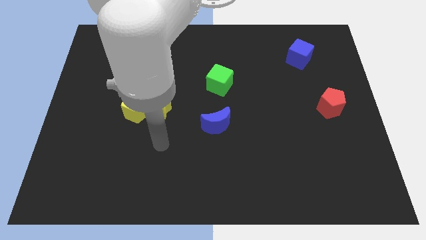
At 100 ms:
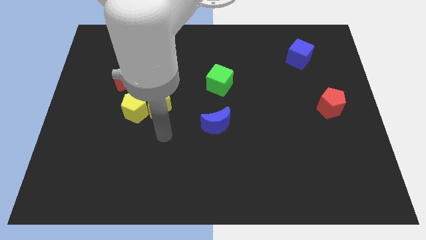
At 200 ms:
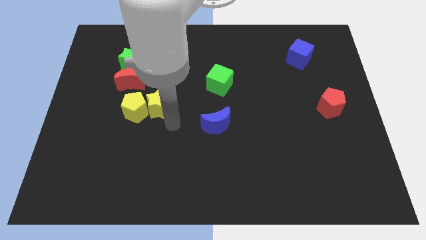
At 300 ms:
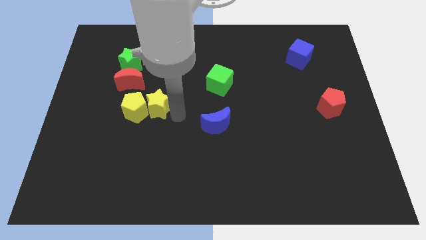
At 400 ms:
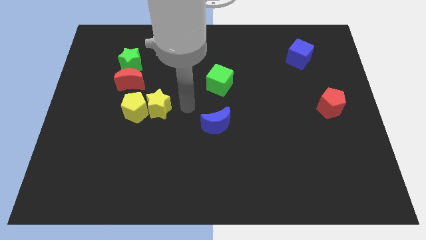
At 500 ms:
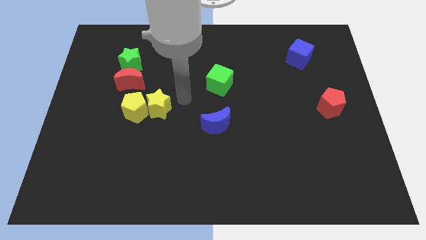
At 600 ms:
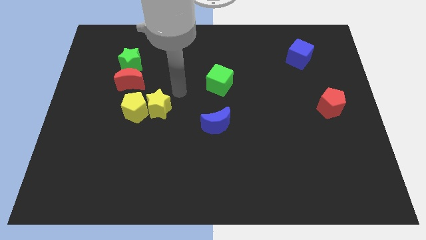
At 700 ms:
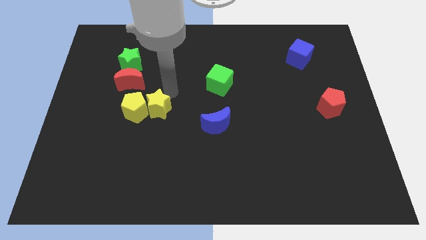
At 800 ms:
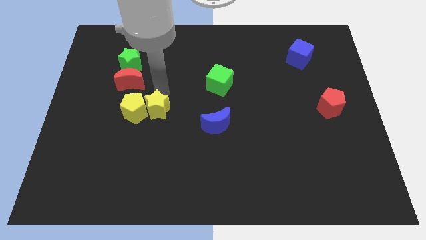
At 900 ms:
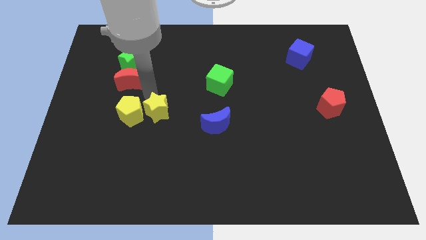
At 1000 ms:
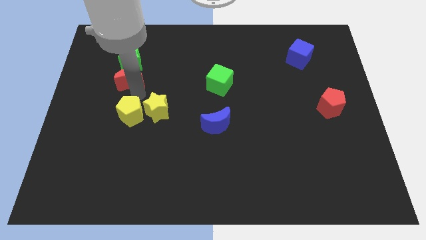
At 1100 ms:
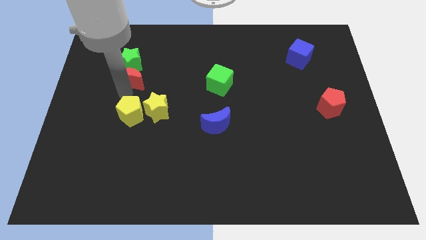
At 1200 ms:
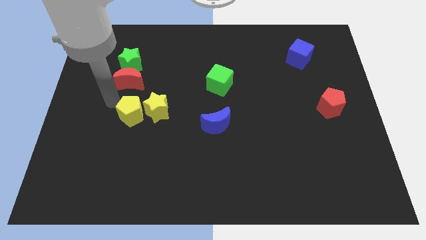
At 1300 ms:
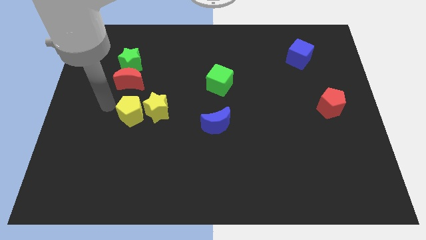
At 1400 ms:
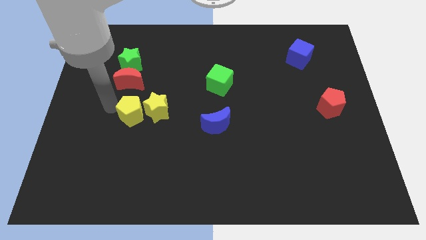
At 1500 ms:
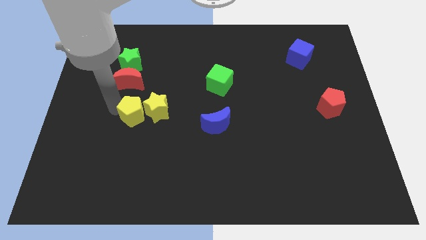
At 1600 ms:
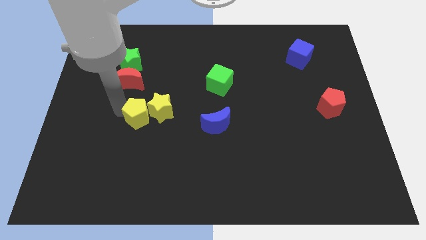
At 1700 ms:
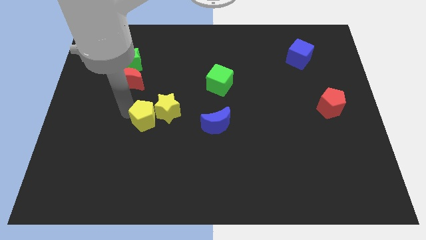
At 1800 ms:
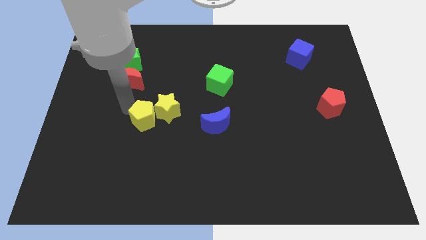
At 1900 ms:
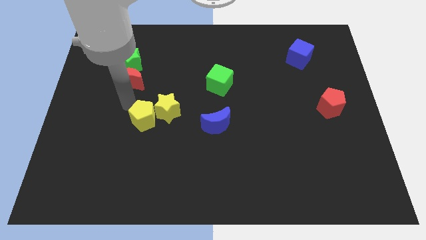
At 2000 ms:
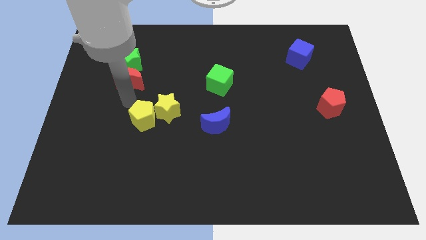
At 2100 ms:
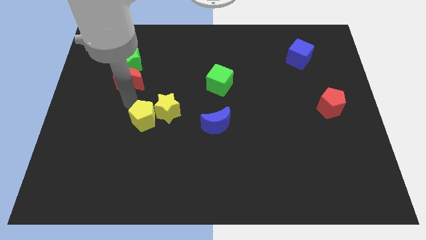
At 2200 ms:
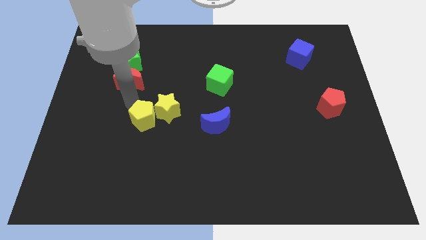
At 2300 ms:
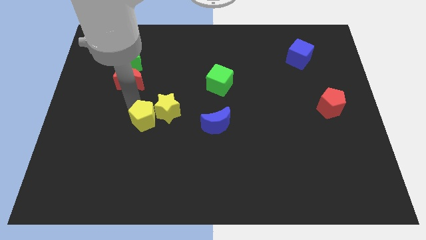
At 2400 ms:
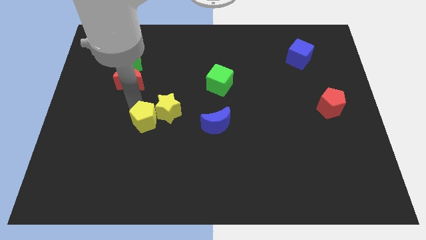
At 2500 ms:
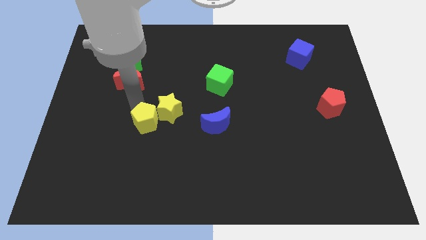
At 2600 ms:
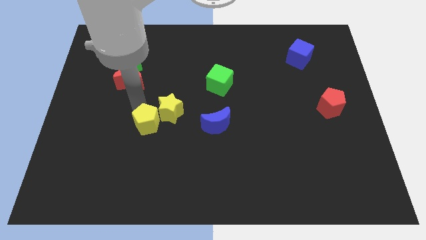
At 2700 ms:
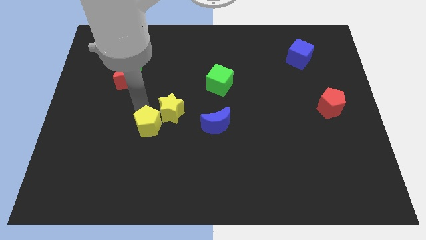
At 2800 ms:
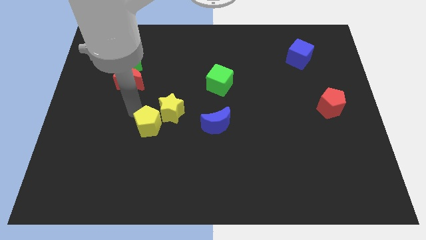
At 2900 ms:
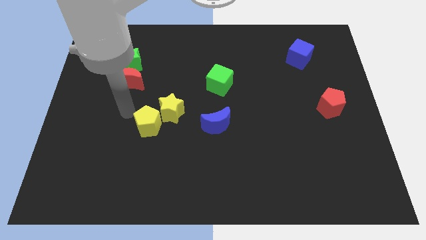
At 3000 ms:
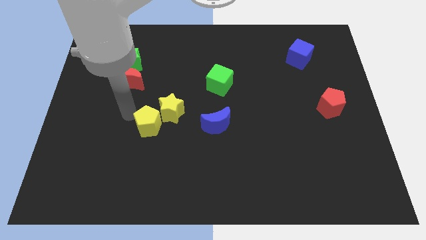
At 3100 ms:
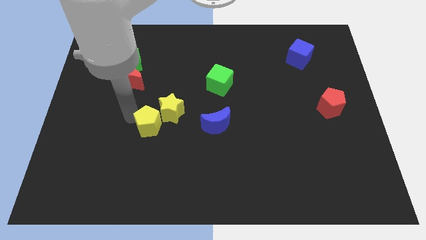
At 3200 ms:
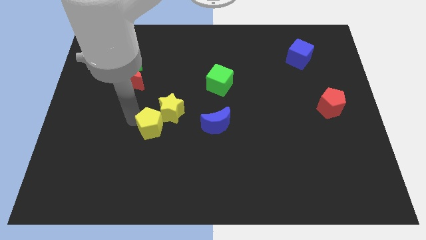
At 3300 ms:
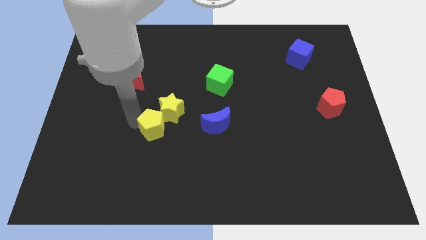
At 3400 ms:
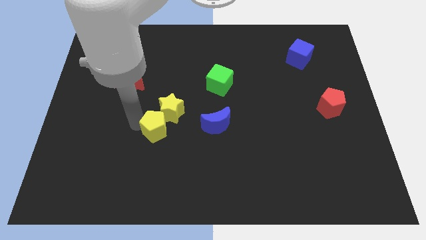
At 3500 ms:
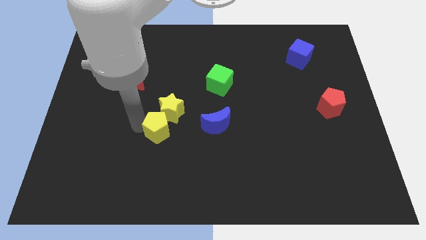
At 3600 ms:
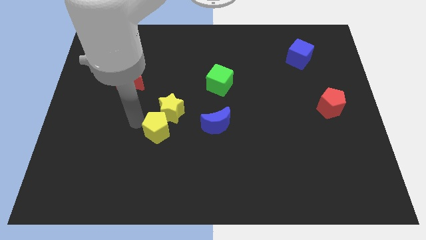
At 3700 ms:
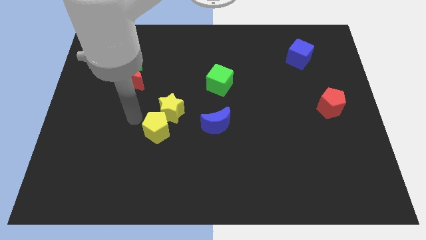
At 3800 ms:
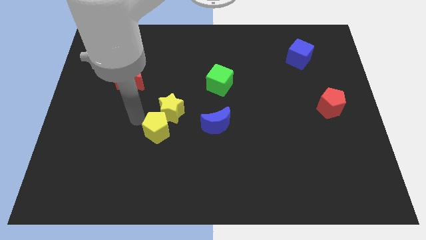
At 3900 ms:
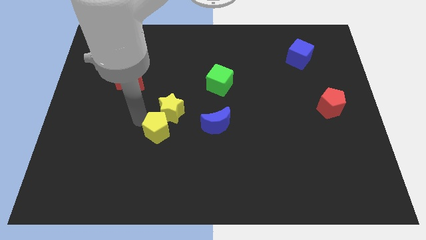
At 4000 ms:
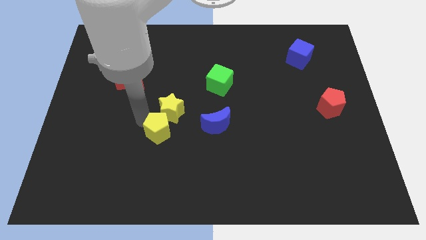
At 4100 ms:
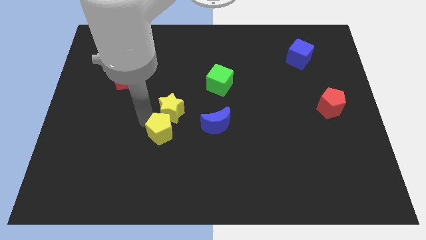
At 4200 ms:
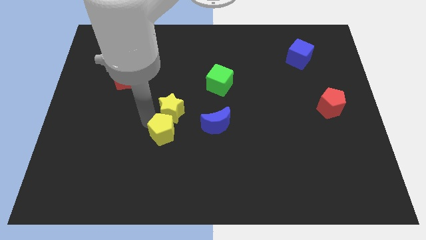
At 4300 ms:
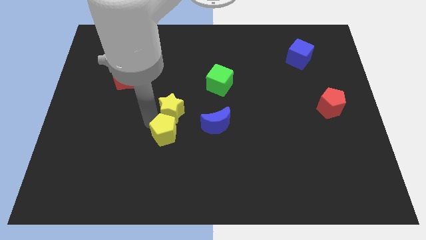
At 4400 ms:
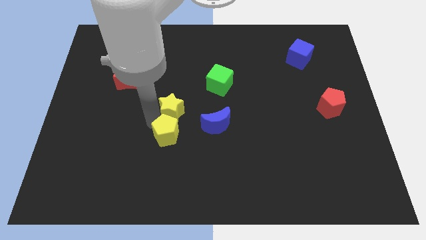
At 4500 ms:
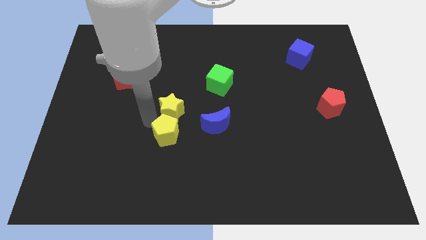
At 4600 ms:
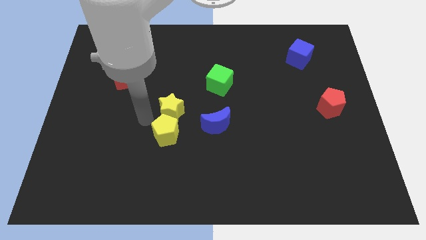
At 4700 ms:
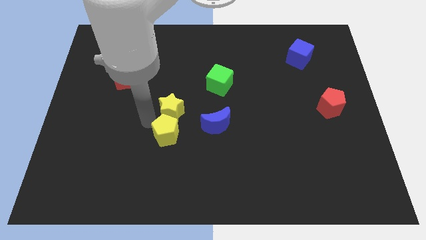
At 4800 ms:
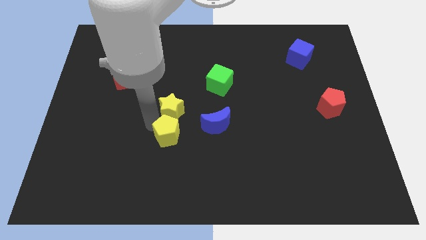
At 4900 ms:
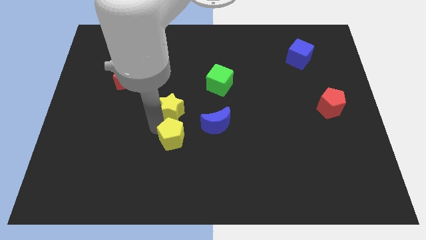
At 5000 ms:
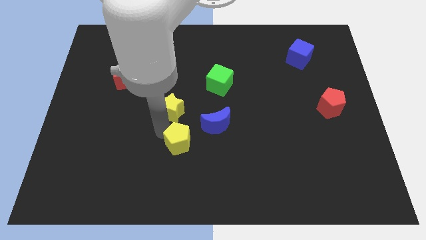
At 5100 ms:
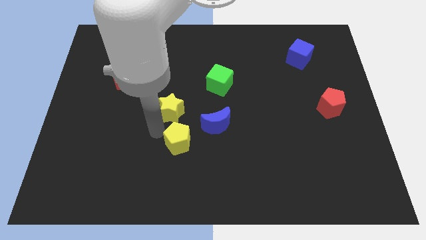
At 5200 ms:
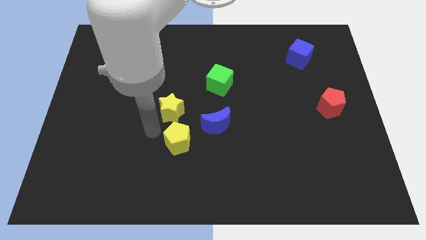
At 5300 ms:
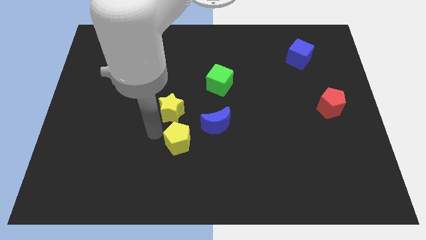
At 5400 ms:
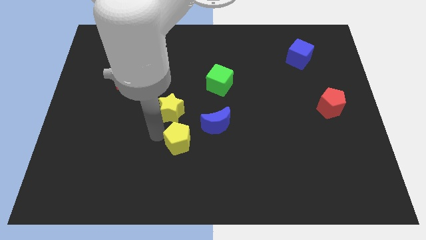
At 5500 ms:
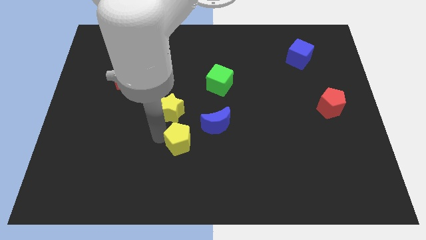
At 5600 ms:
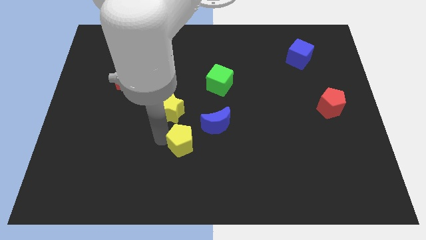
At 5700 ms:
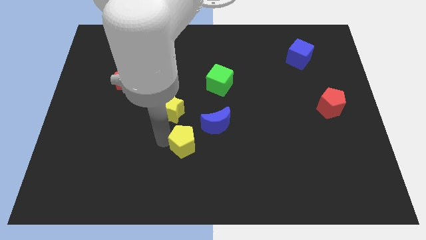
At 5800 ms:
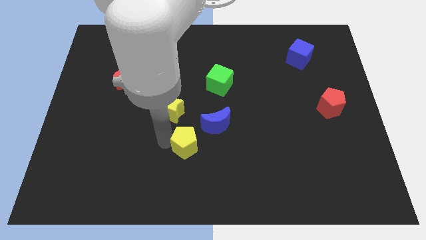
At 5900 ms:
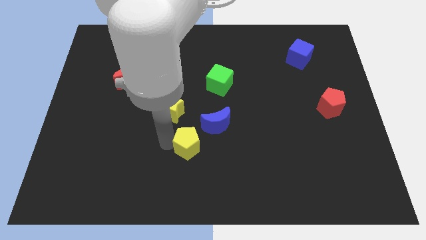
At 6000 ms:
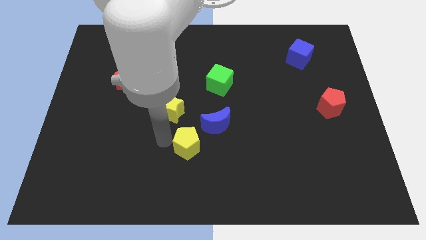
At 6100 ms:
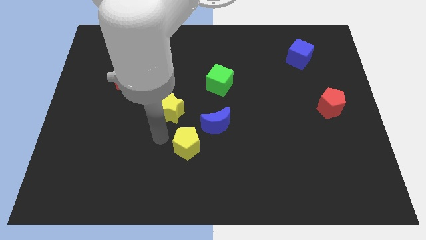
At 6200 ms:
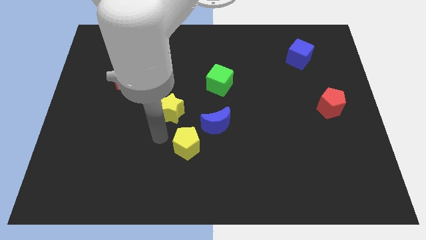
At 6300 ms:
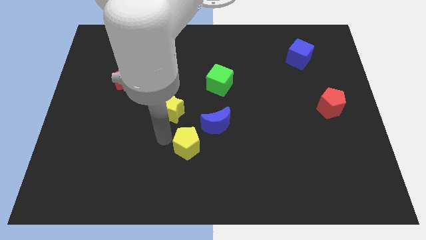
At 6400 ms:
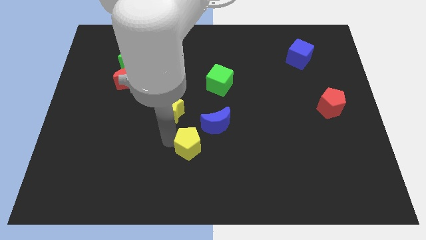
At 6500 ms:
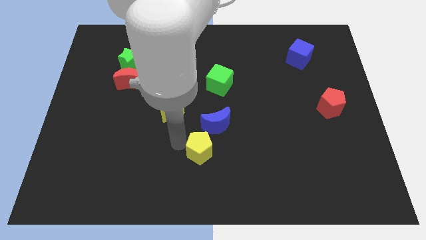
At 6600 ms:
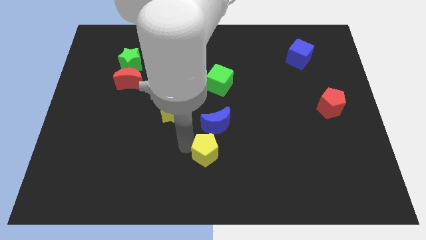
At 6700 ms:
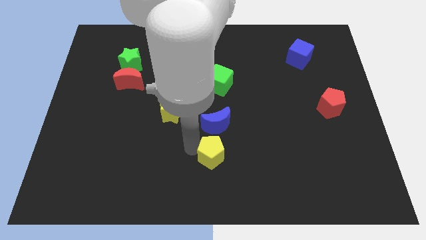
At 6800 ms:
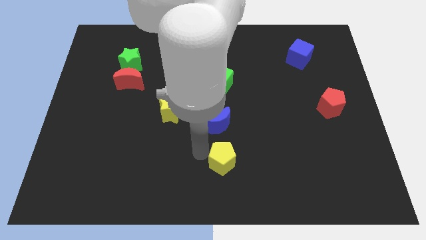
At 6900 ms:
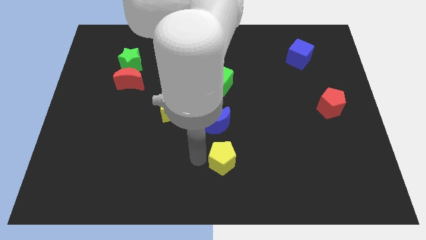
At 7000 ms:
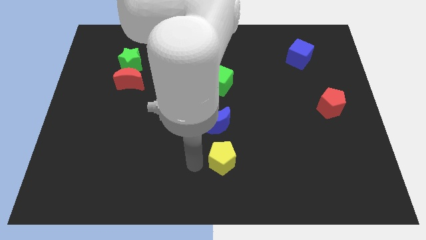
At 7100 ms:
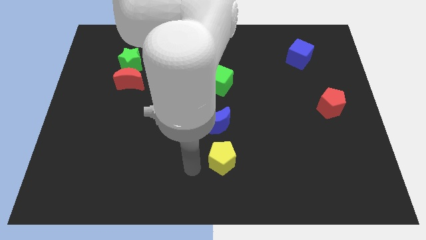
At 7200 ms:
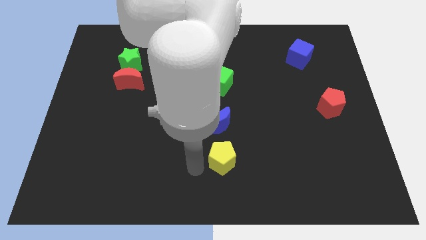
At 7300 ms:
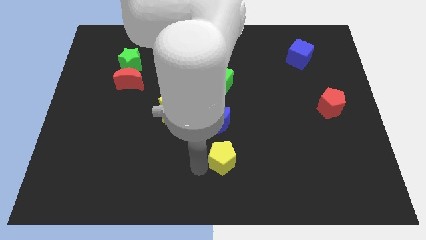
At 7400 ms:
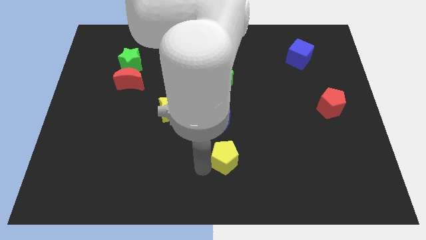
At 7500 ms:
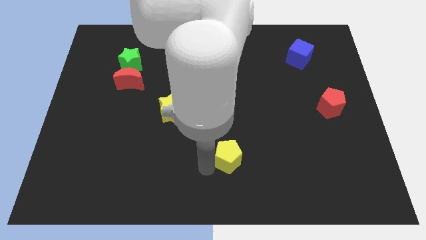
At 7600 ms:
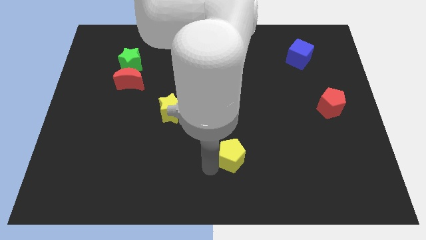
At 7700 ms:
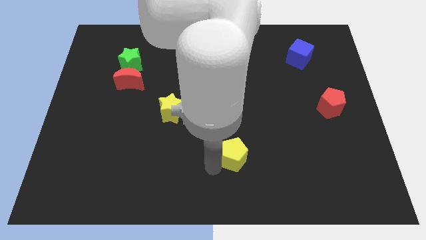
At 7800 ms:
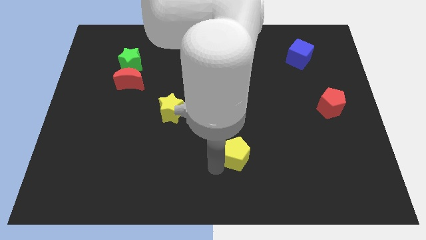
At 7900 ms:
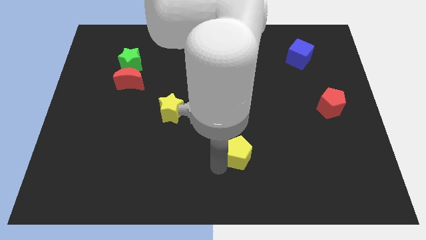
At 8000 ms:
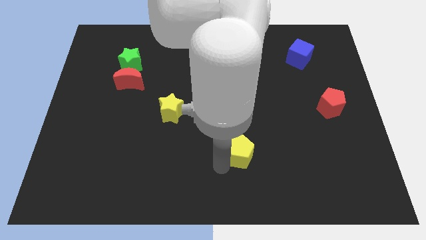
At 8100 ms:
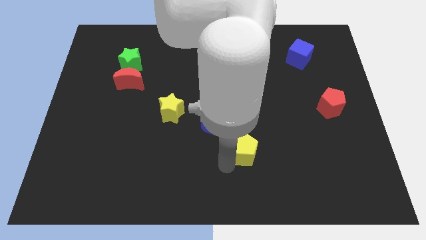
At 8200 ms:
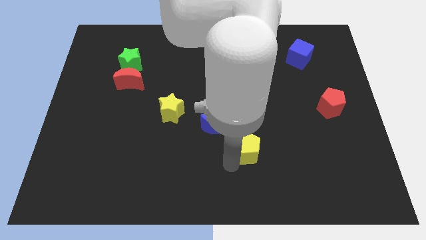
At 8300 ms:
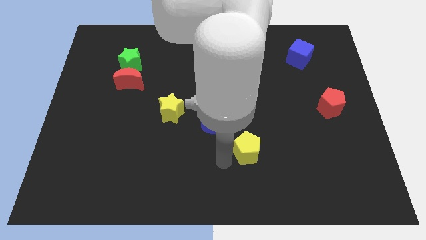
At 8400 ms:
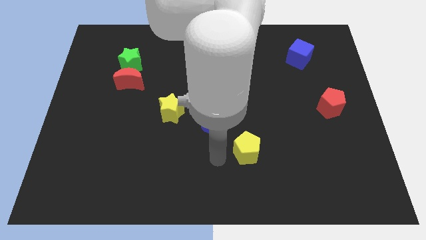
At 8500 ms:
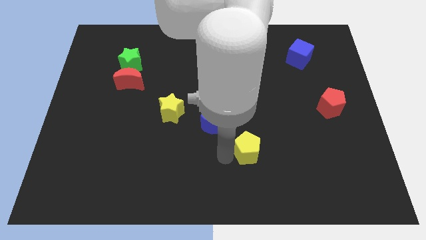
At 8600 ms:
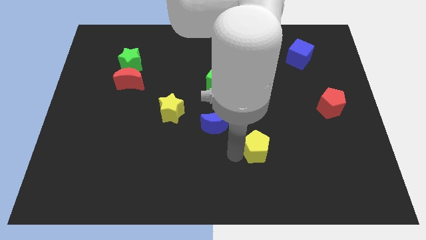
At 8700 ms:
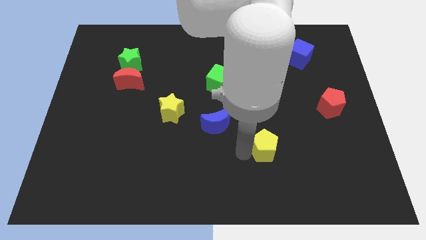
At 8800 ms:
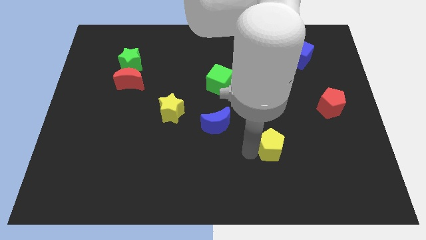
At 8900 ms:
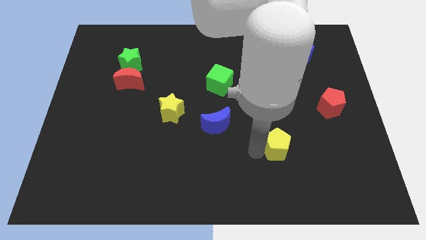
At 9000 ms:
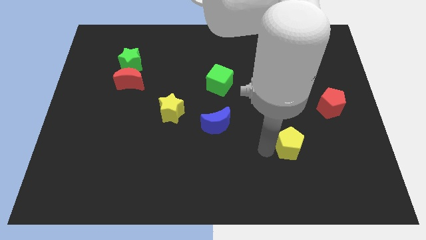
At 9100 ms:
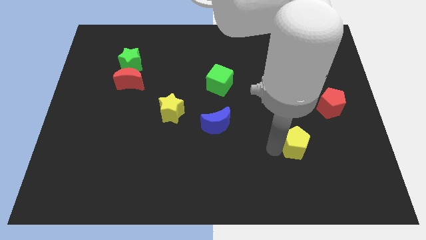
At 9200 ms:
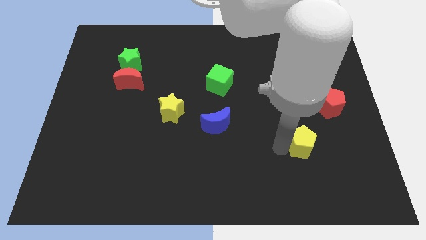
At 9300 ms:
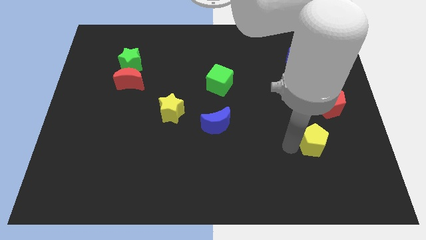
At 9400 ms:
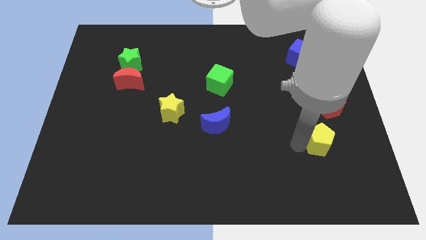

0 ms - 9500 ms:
slide the yellow pentagon to the bottom of the red pentagon
